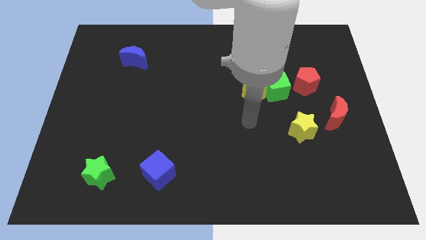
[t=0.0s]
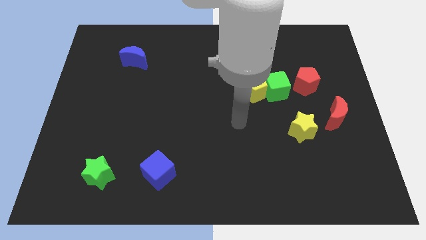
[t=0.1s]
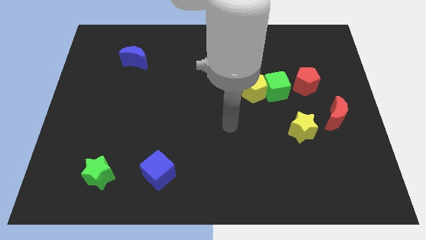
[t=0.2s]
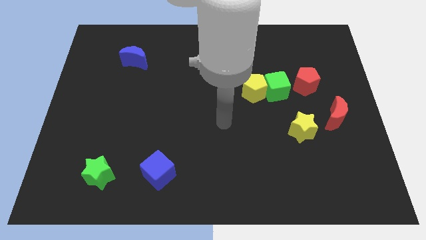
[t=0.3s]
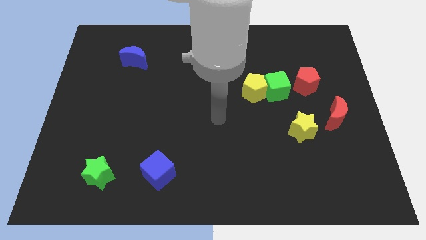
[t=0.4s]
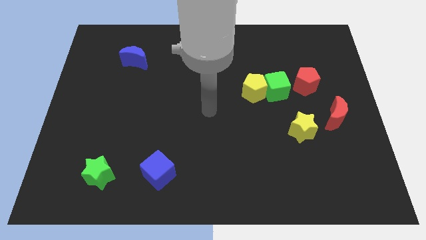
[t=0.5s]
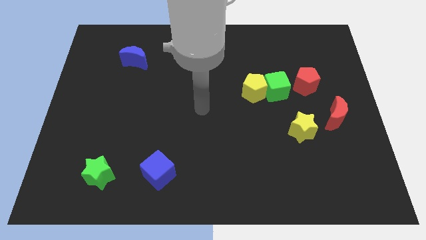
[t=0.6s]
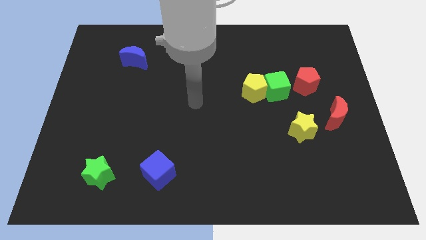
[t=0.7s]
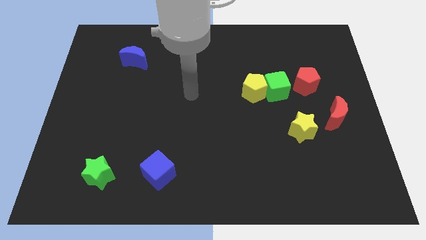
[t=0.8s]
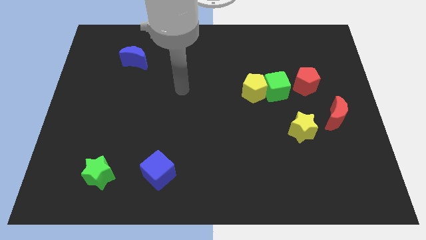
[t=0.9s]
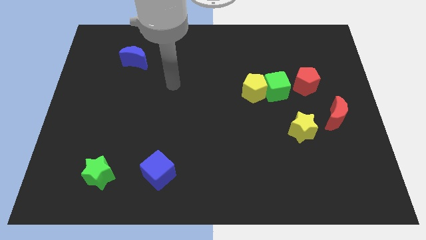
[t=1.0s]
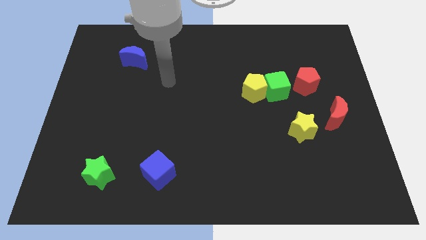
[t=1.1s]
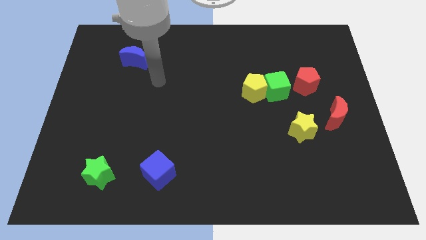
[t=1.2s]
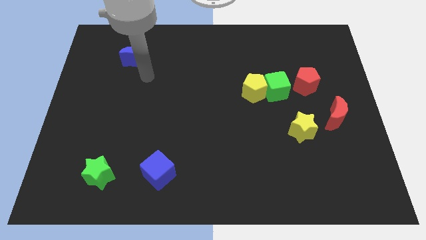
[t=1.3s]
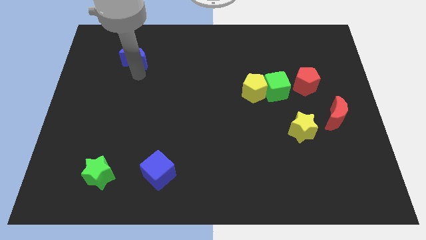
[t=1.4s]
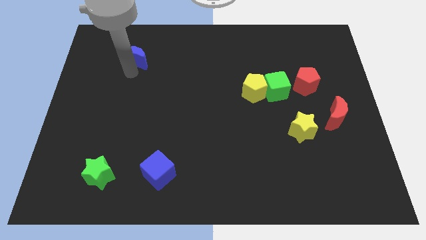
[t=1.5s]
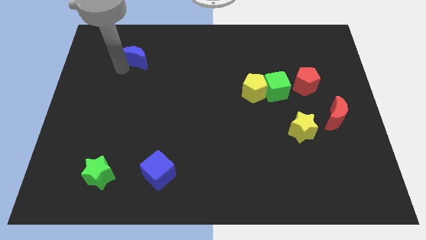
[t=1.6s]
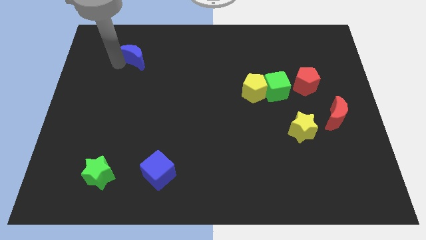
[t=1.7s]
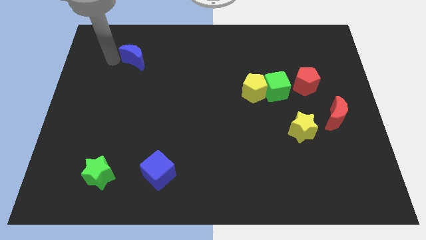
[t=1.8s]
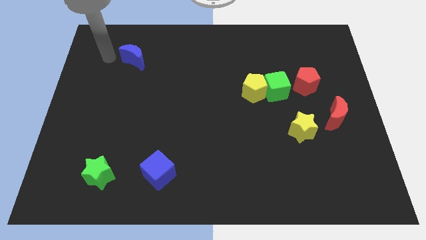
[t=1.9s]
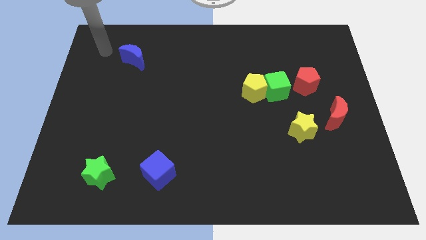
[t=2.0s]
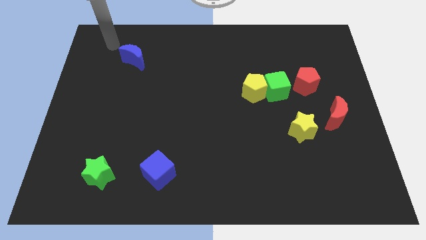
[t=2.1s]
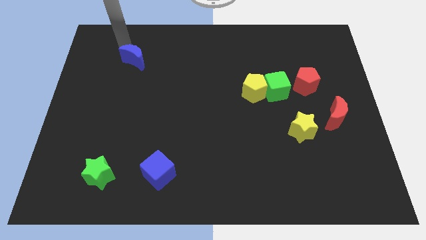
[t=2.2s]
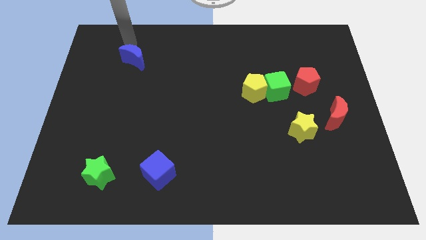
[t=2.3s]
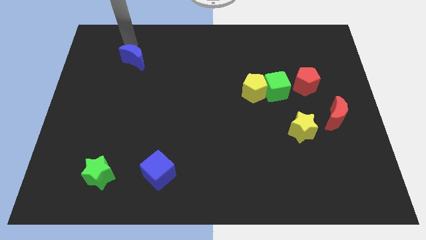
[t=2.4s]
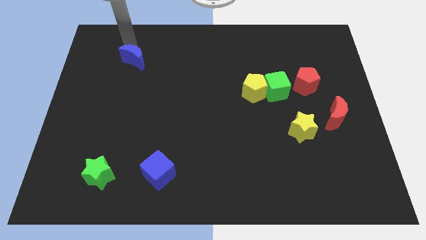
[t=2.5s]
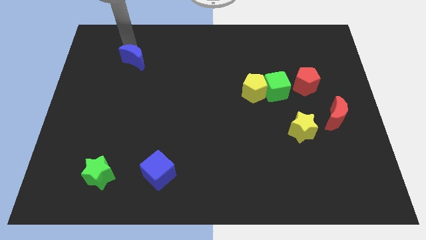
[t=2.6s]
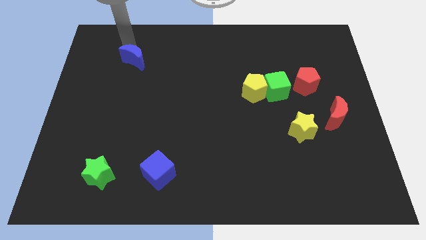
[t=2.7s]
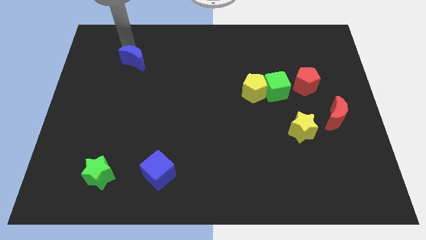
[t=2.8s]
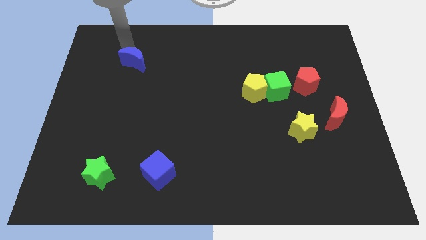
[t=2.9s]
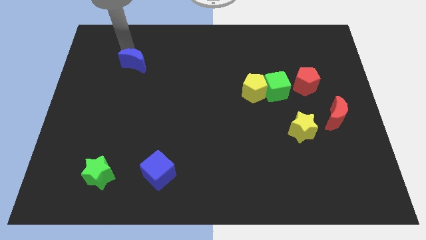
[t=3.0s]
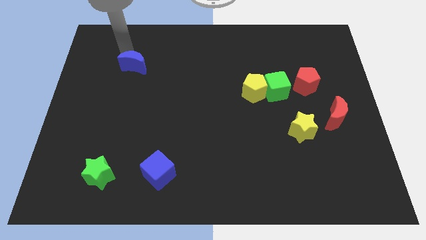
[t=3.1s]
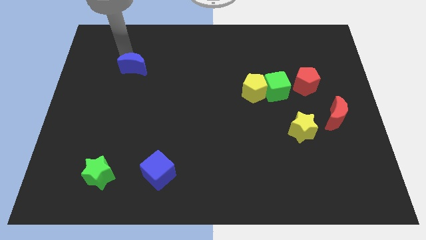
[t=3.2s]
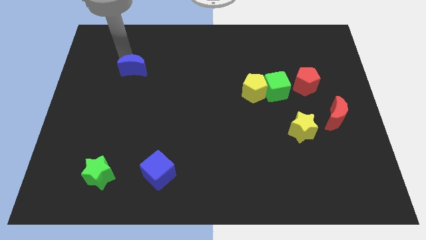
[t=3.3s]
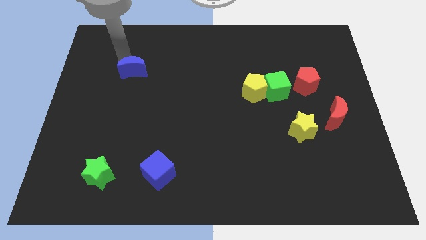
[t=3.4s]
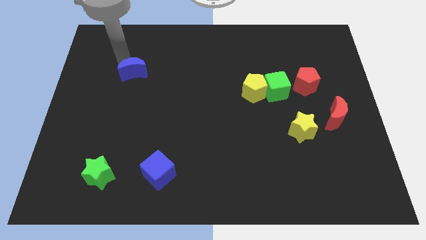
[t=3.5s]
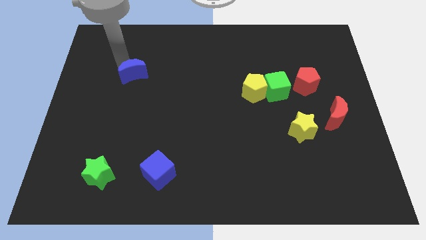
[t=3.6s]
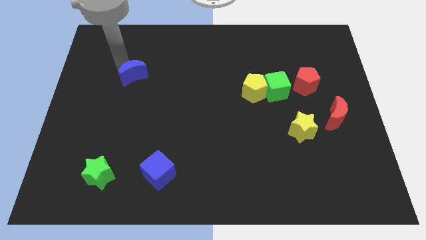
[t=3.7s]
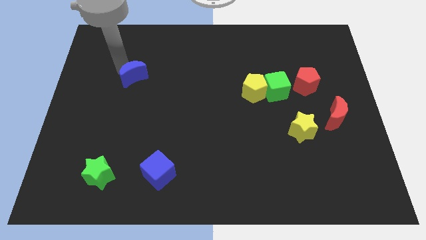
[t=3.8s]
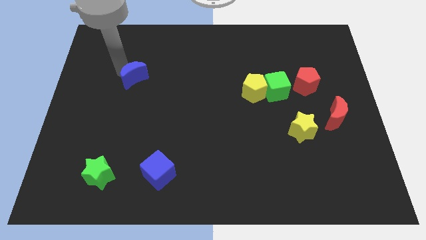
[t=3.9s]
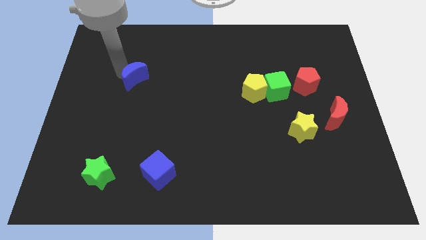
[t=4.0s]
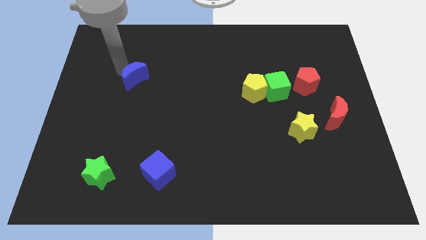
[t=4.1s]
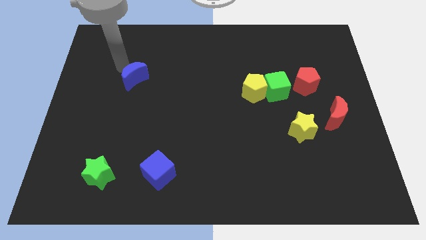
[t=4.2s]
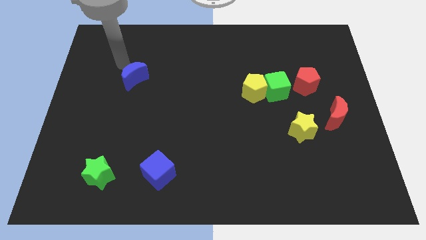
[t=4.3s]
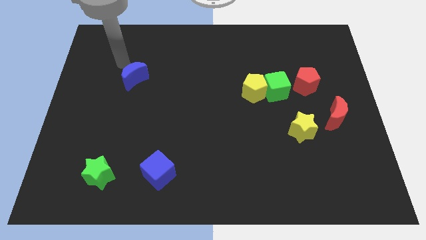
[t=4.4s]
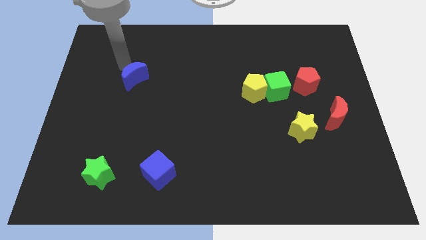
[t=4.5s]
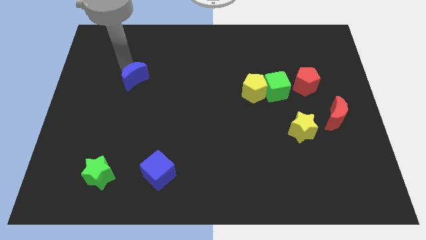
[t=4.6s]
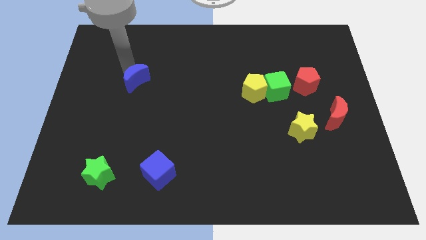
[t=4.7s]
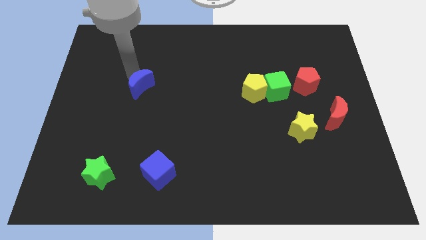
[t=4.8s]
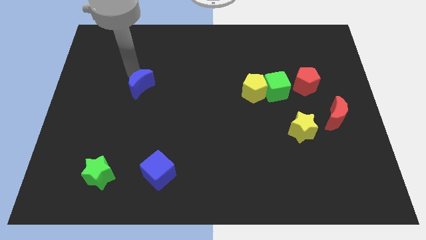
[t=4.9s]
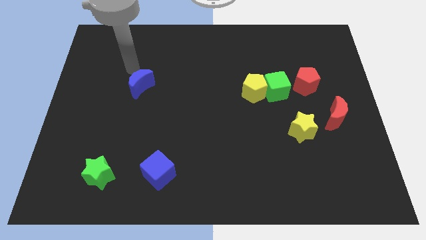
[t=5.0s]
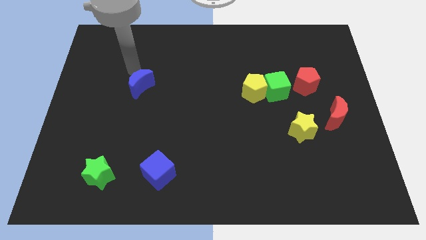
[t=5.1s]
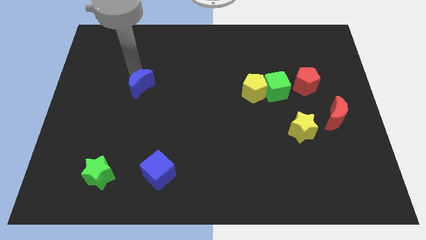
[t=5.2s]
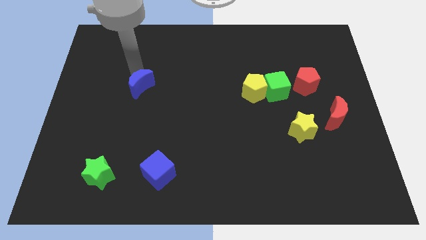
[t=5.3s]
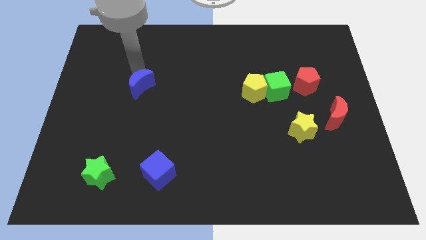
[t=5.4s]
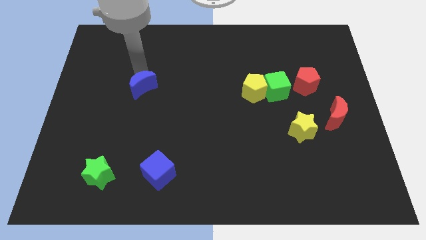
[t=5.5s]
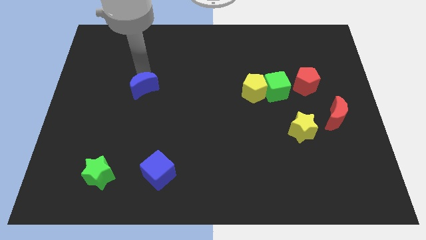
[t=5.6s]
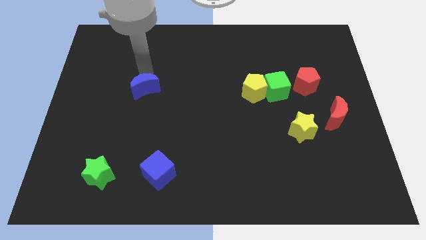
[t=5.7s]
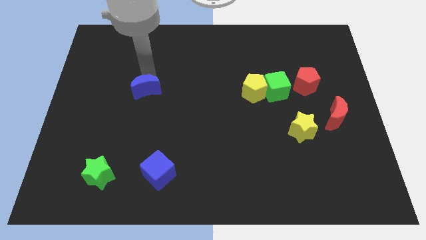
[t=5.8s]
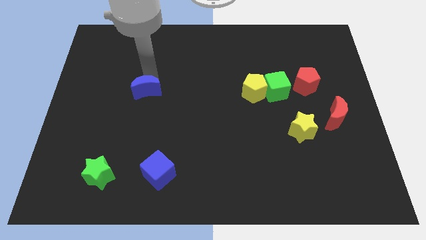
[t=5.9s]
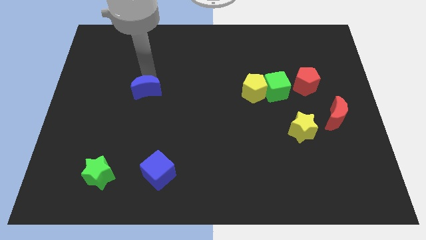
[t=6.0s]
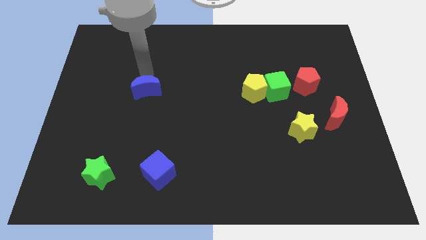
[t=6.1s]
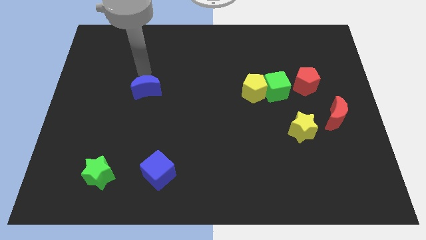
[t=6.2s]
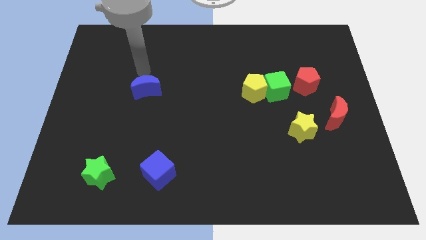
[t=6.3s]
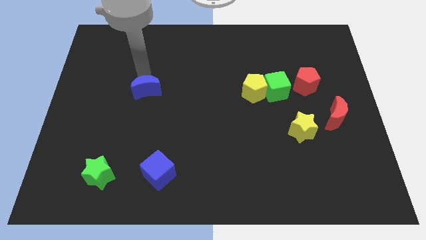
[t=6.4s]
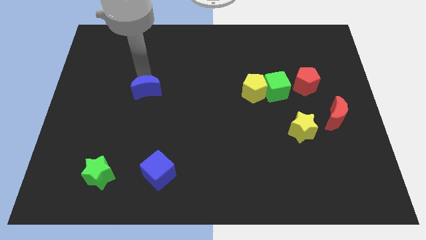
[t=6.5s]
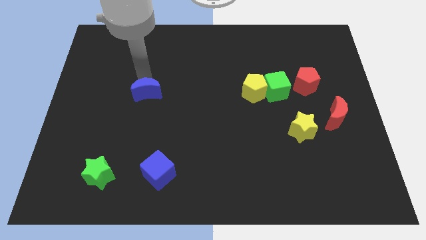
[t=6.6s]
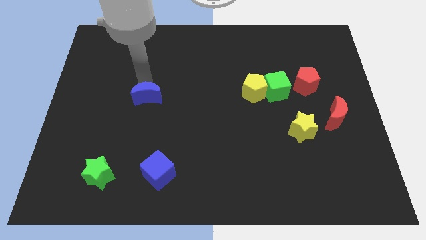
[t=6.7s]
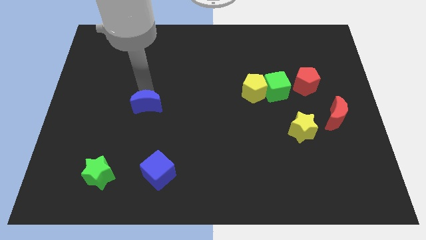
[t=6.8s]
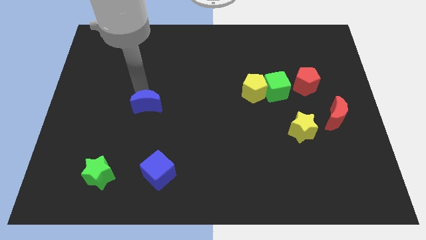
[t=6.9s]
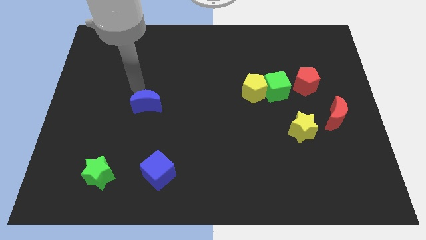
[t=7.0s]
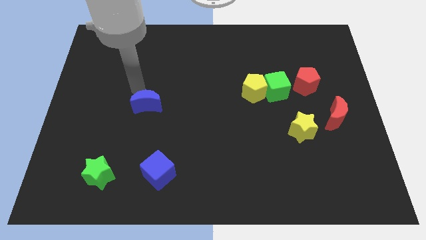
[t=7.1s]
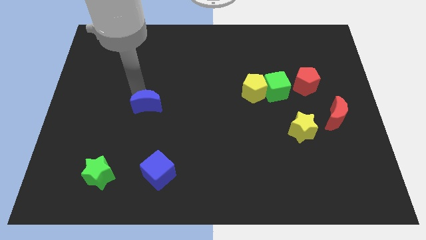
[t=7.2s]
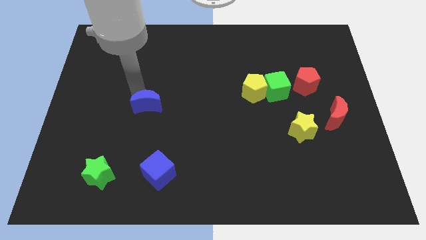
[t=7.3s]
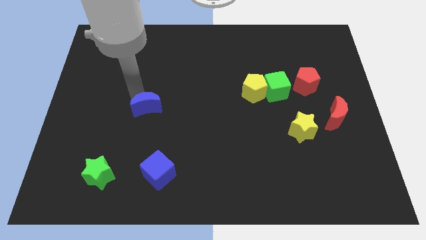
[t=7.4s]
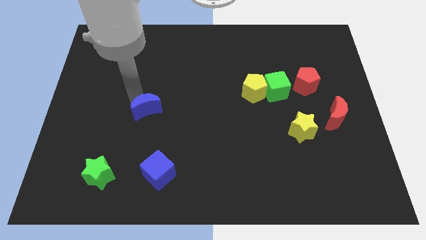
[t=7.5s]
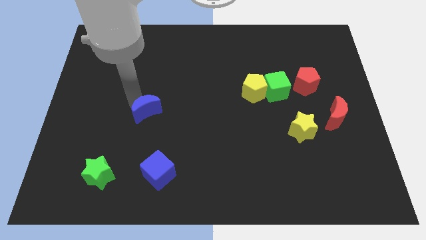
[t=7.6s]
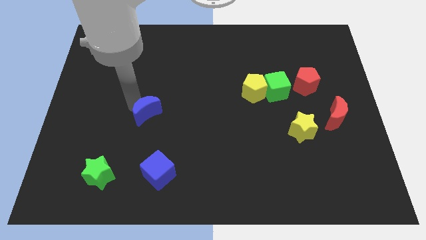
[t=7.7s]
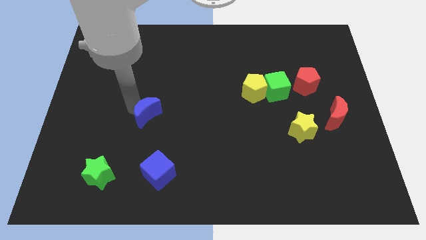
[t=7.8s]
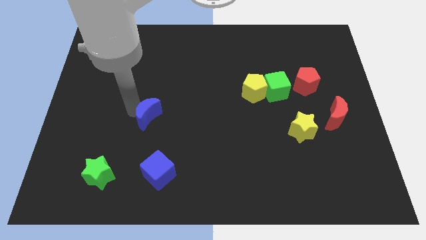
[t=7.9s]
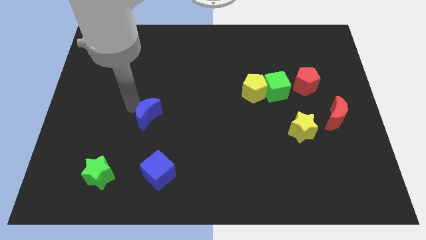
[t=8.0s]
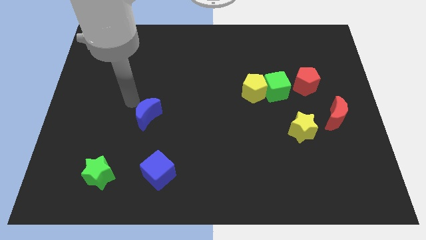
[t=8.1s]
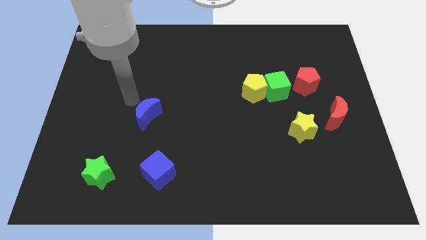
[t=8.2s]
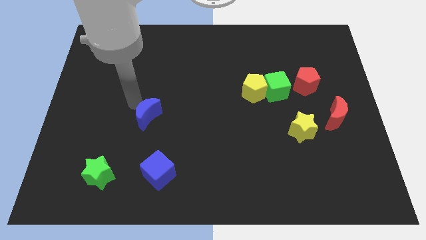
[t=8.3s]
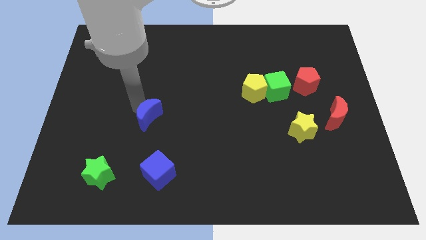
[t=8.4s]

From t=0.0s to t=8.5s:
move the blue moon to the top side of the blue cube
